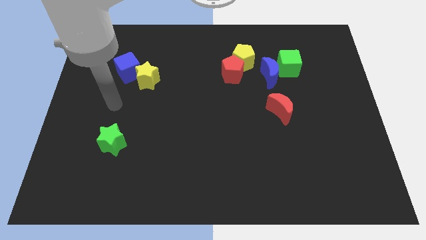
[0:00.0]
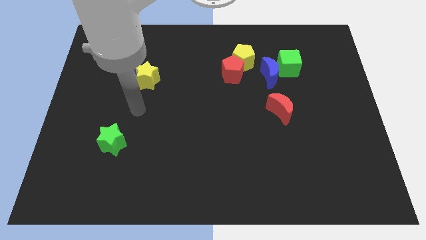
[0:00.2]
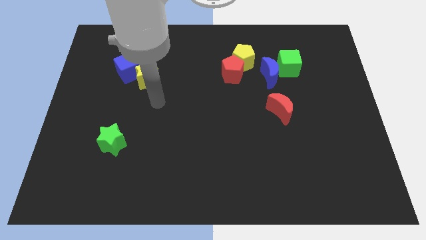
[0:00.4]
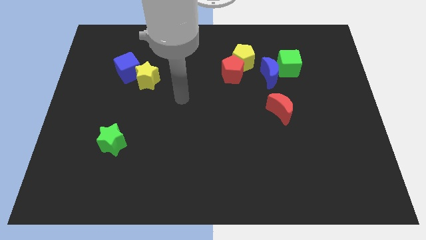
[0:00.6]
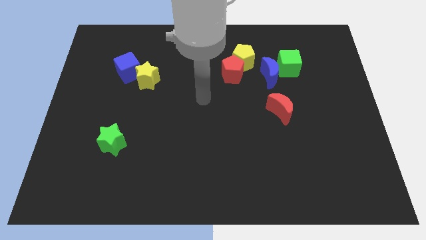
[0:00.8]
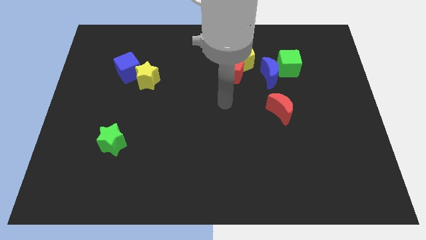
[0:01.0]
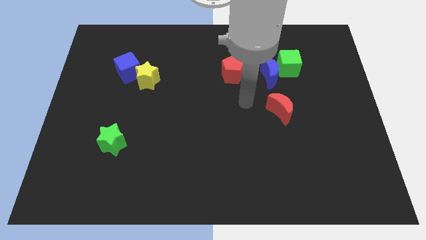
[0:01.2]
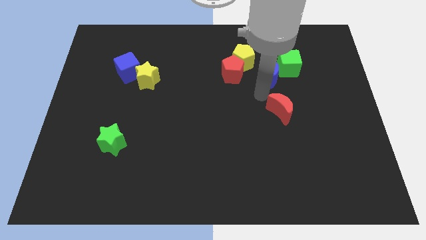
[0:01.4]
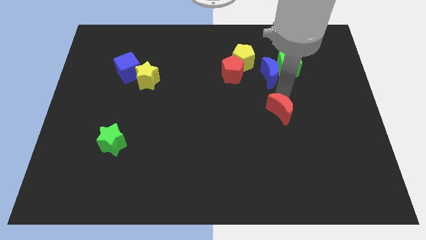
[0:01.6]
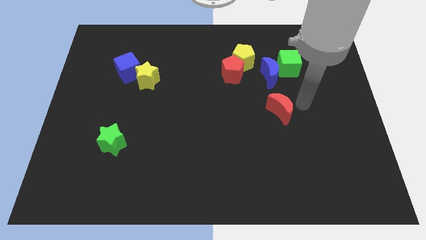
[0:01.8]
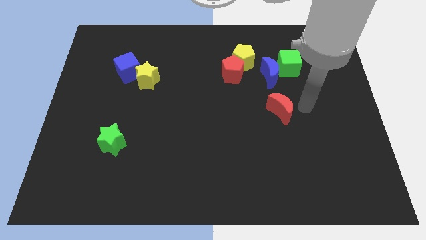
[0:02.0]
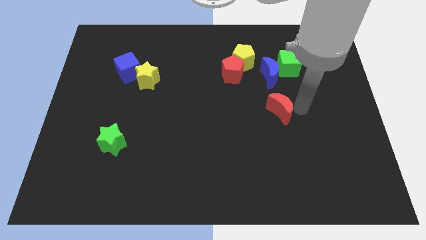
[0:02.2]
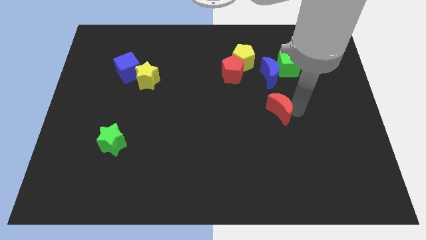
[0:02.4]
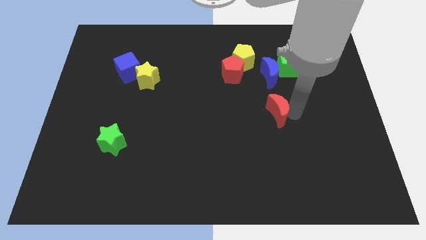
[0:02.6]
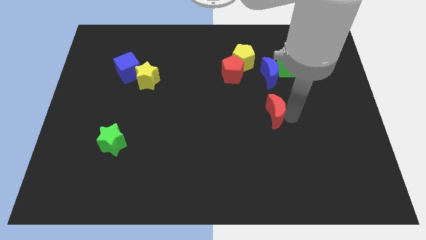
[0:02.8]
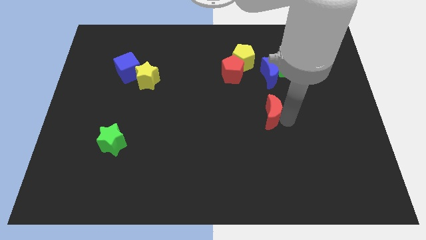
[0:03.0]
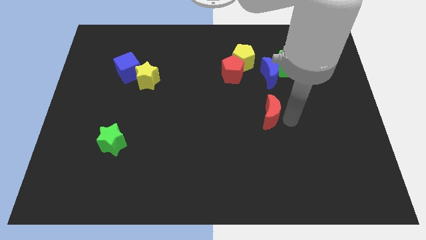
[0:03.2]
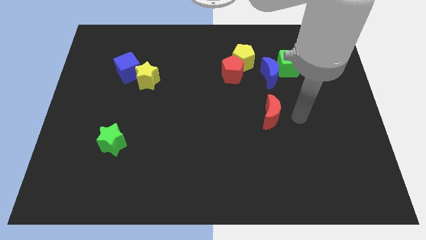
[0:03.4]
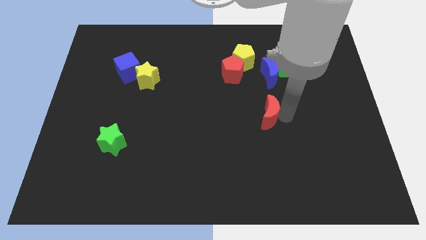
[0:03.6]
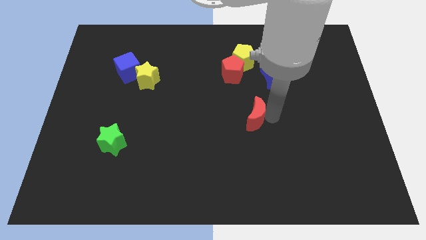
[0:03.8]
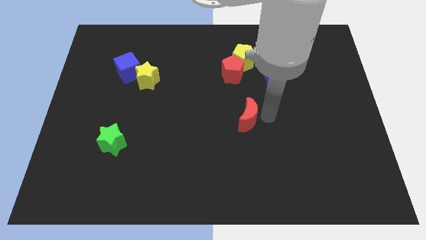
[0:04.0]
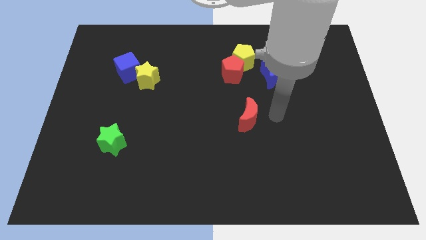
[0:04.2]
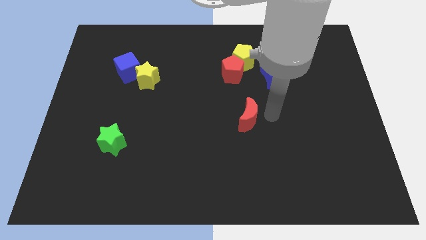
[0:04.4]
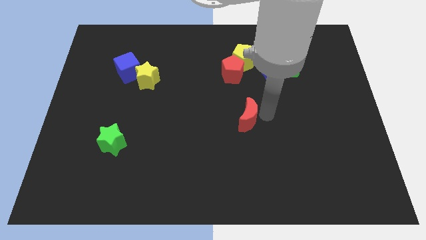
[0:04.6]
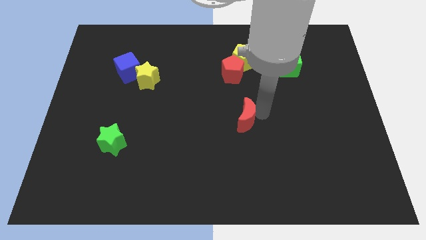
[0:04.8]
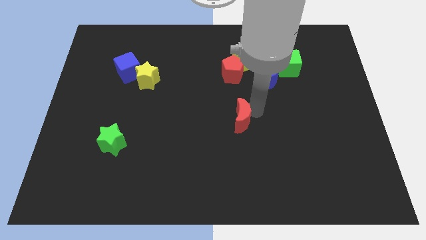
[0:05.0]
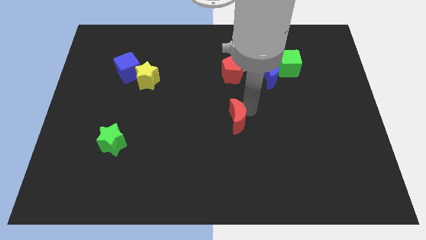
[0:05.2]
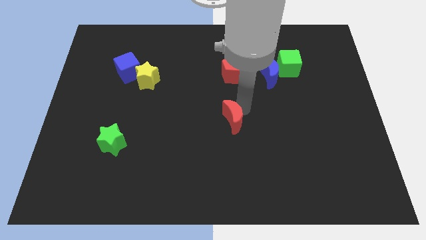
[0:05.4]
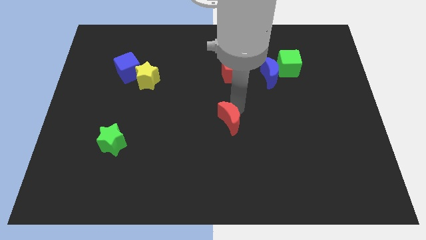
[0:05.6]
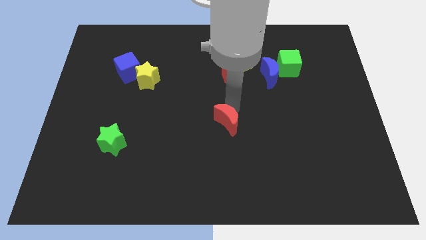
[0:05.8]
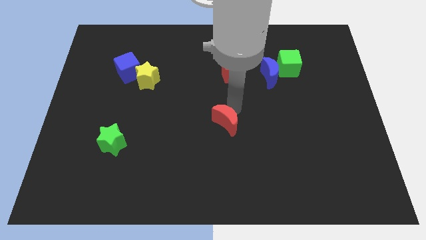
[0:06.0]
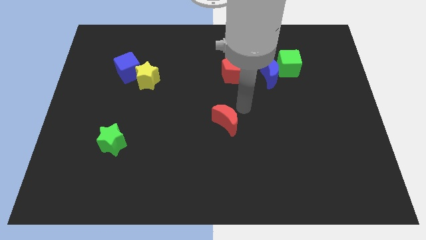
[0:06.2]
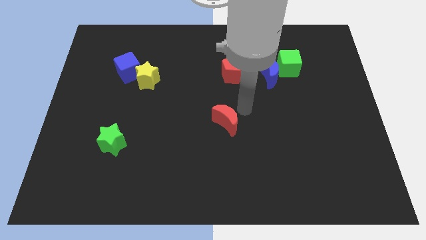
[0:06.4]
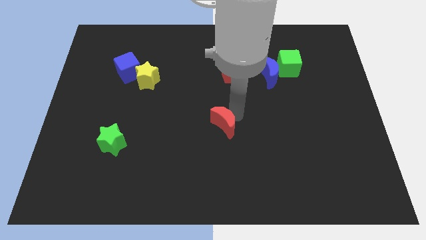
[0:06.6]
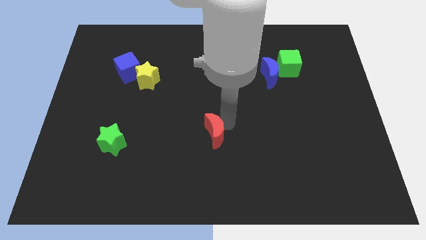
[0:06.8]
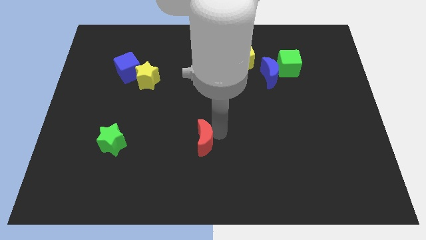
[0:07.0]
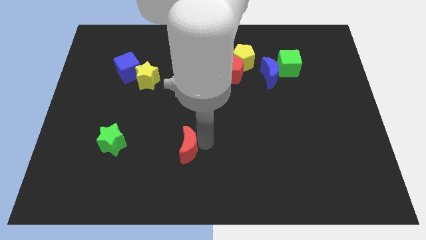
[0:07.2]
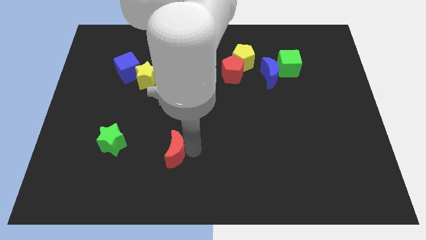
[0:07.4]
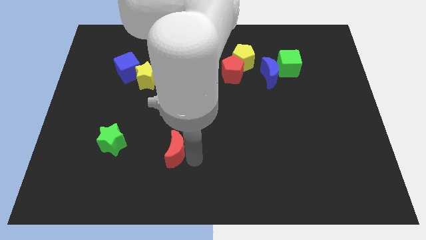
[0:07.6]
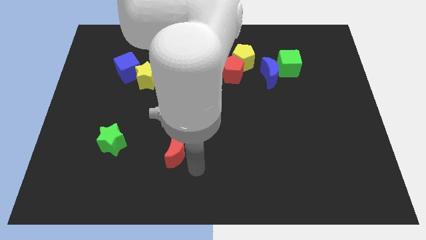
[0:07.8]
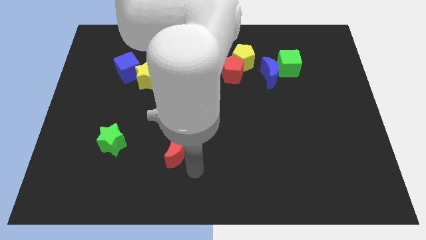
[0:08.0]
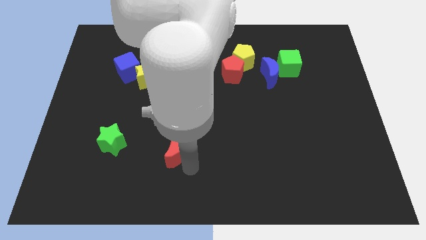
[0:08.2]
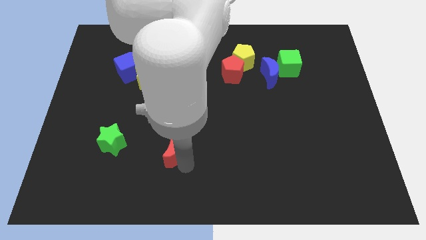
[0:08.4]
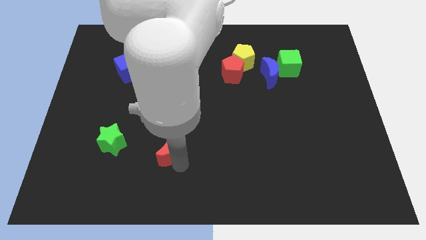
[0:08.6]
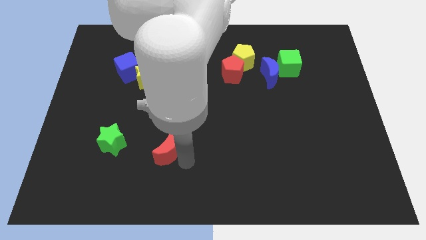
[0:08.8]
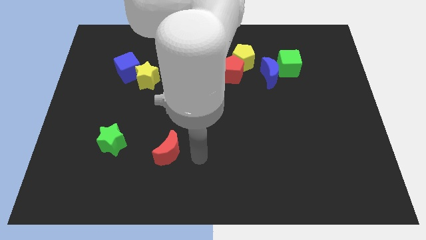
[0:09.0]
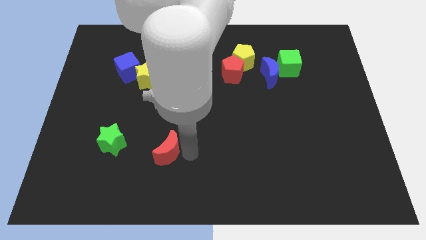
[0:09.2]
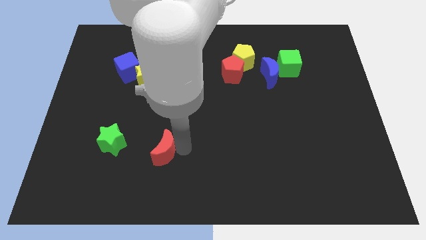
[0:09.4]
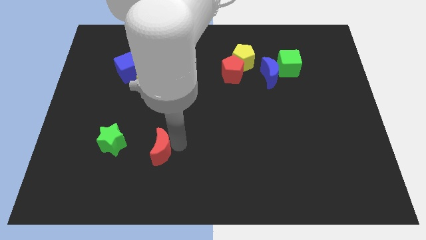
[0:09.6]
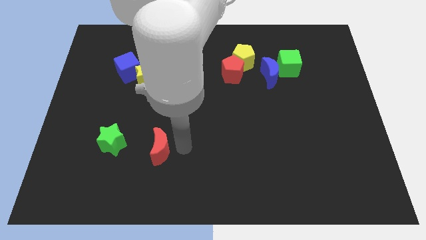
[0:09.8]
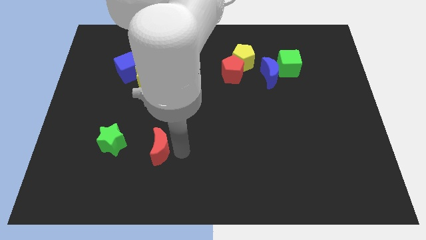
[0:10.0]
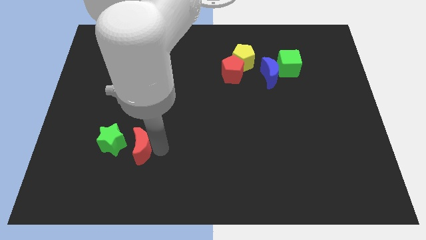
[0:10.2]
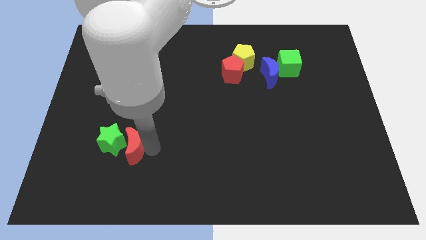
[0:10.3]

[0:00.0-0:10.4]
put the red moon next to the green star

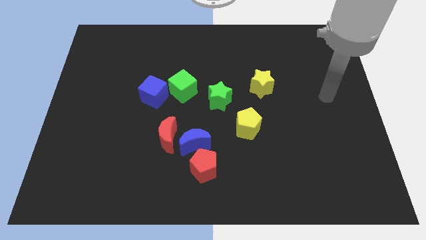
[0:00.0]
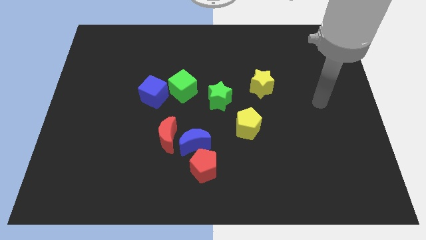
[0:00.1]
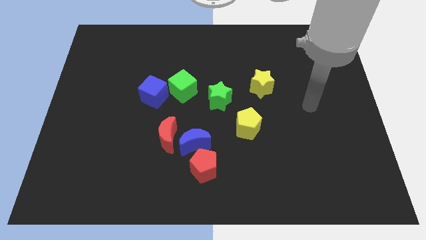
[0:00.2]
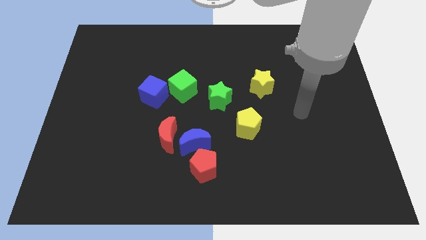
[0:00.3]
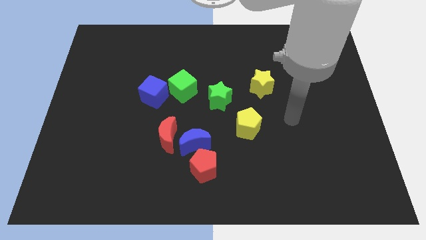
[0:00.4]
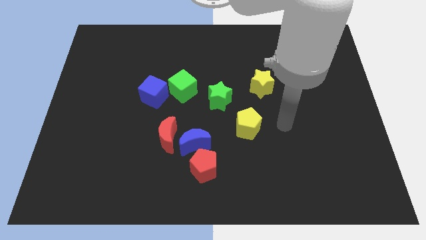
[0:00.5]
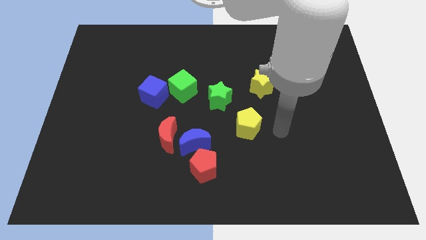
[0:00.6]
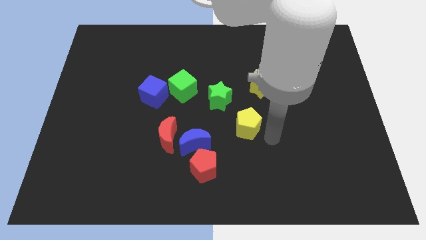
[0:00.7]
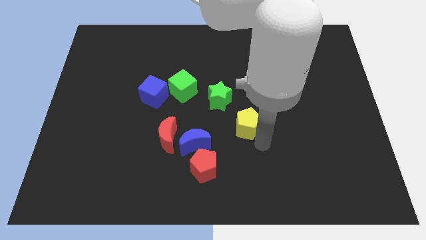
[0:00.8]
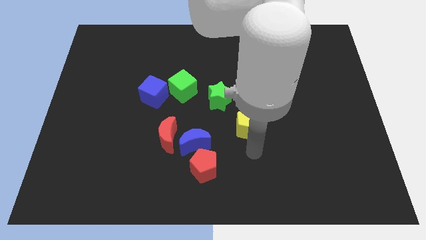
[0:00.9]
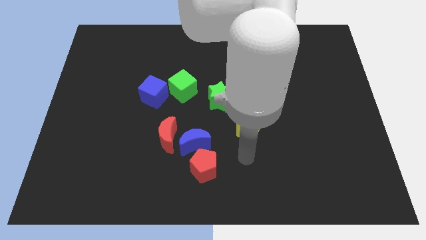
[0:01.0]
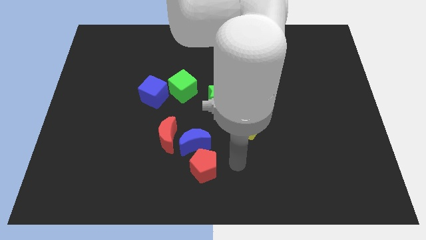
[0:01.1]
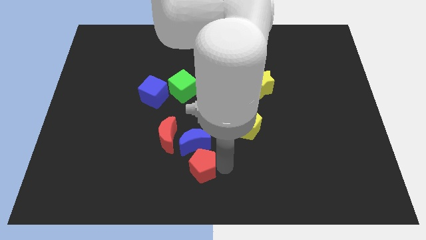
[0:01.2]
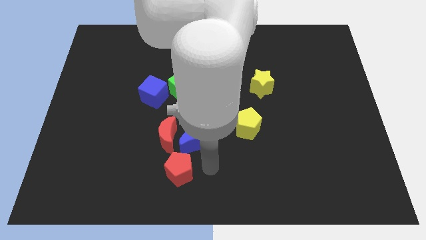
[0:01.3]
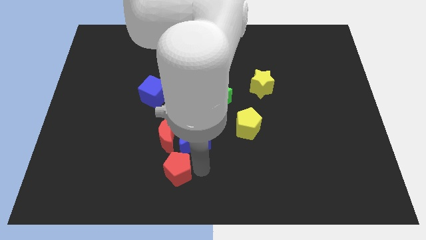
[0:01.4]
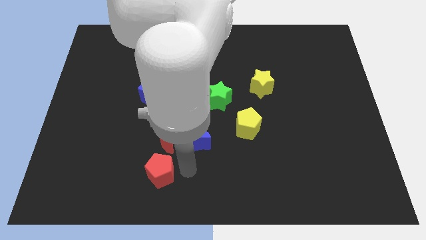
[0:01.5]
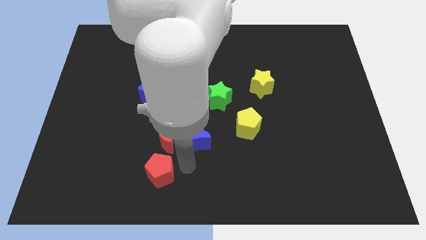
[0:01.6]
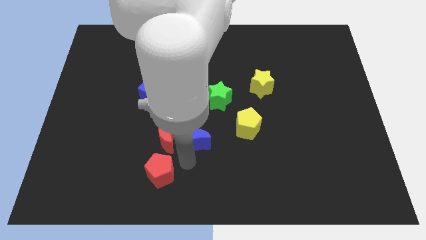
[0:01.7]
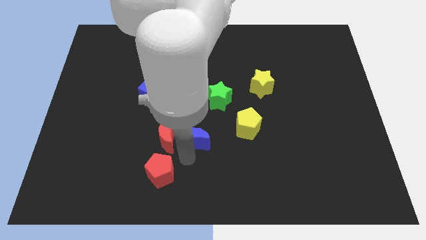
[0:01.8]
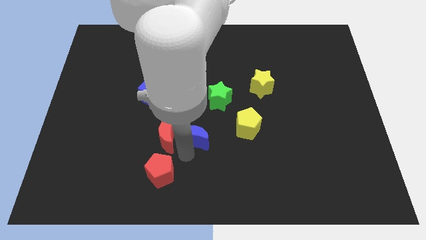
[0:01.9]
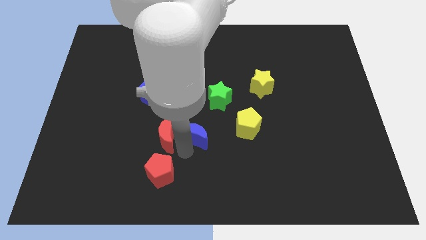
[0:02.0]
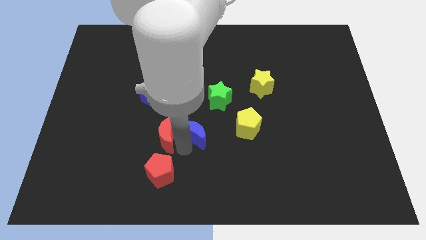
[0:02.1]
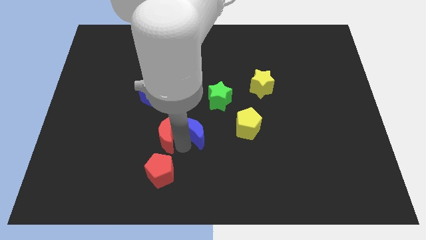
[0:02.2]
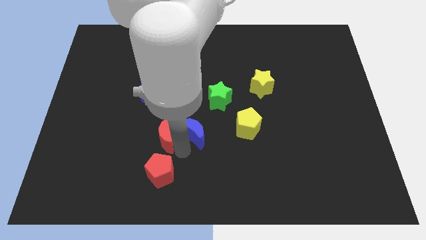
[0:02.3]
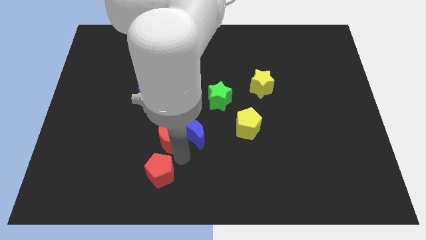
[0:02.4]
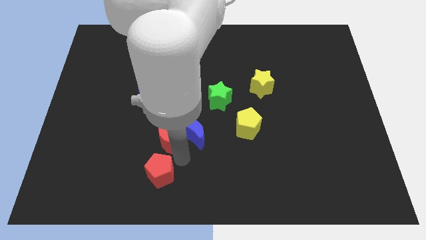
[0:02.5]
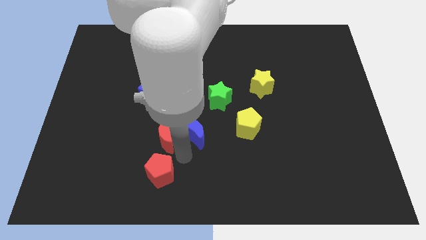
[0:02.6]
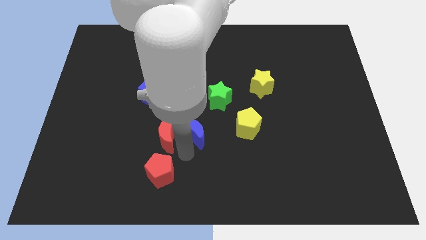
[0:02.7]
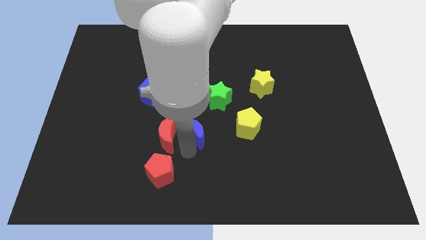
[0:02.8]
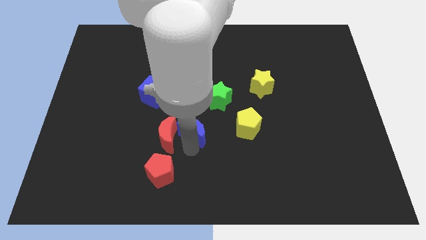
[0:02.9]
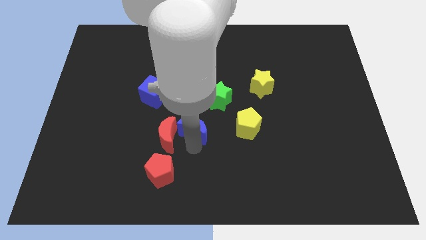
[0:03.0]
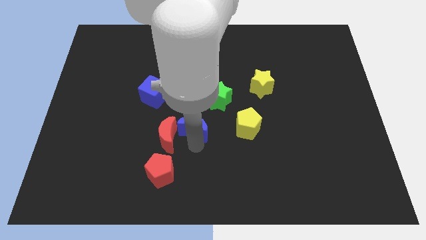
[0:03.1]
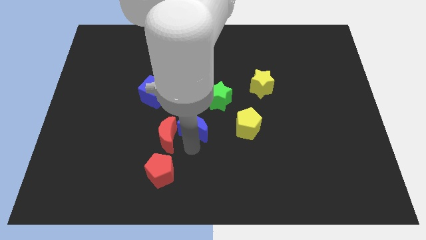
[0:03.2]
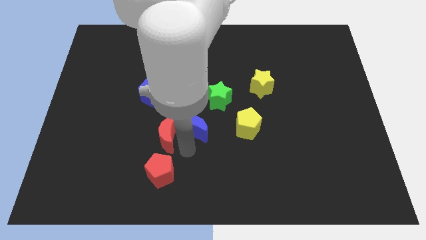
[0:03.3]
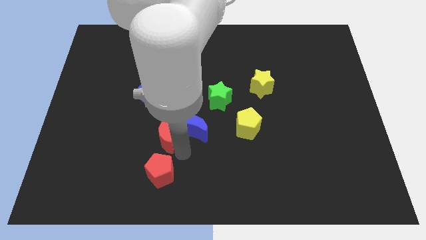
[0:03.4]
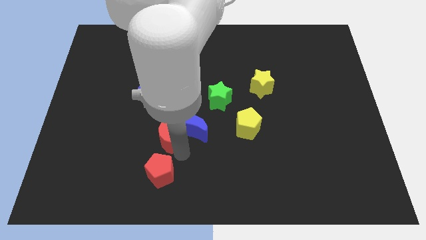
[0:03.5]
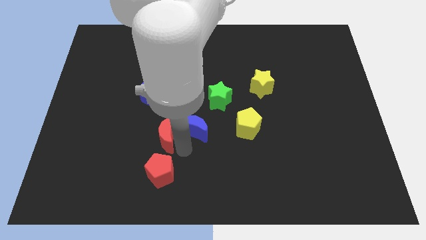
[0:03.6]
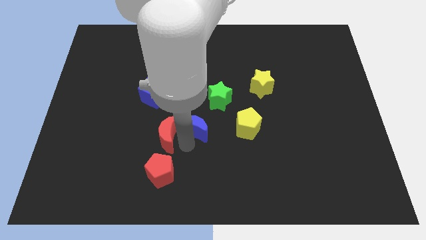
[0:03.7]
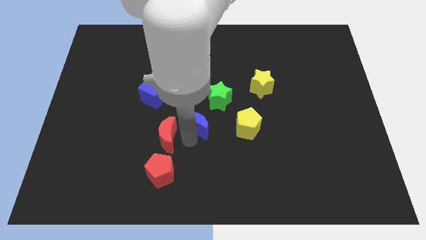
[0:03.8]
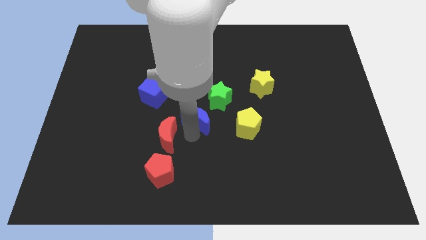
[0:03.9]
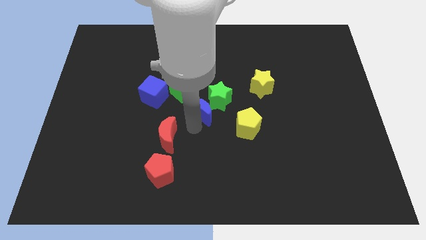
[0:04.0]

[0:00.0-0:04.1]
push the blue moon to the green star
